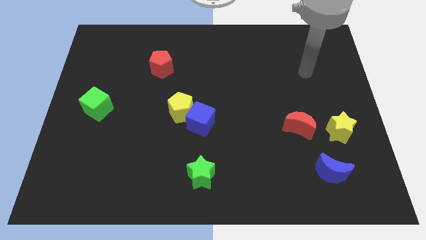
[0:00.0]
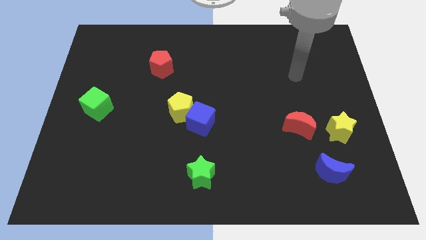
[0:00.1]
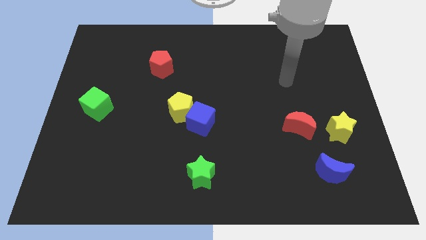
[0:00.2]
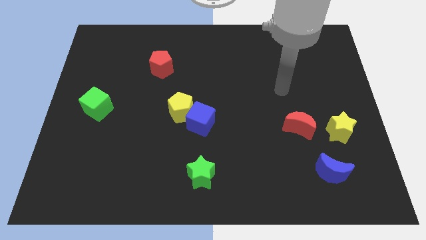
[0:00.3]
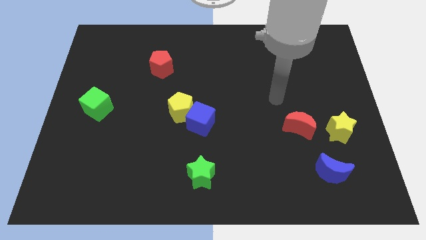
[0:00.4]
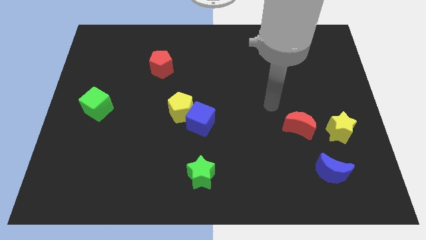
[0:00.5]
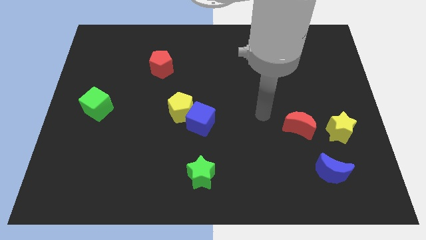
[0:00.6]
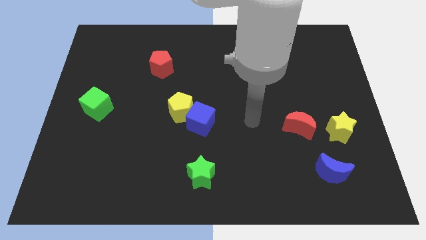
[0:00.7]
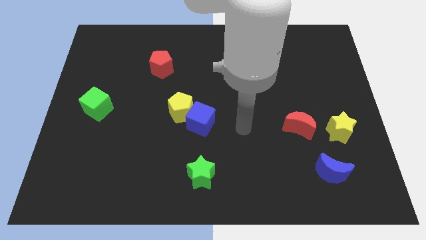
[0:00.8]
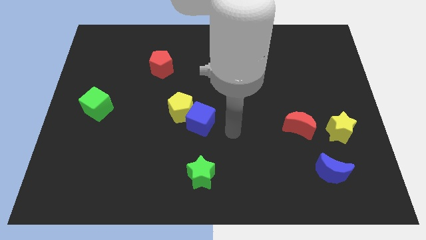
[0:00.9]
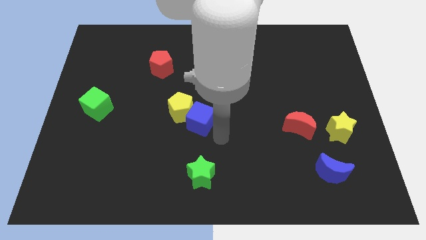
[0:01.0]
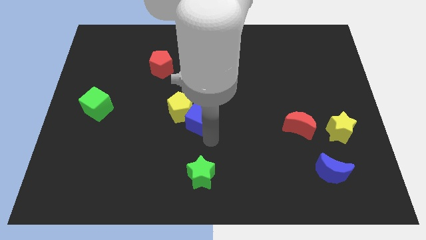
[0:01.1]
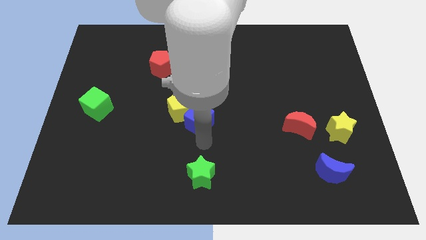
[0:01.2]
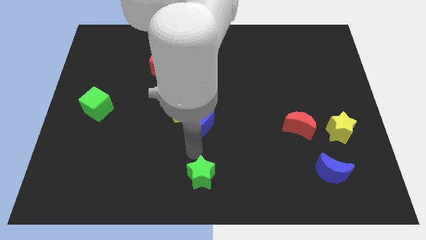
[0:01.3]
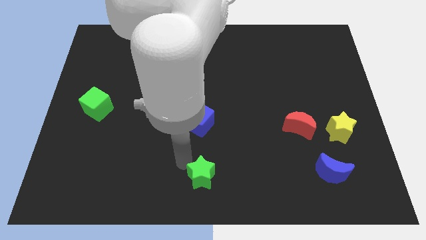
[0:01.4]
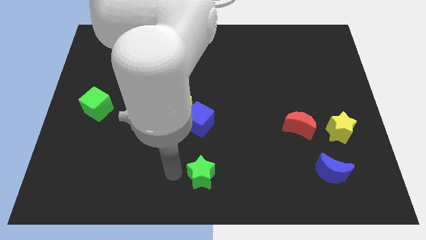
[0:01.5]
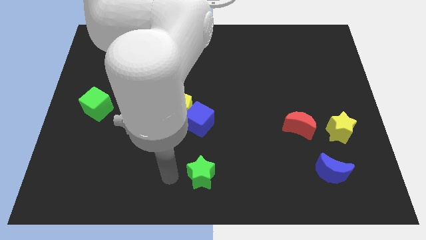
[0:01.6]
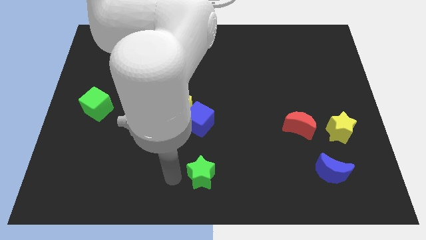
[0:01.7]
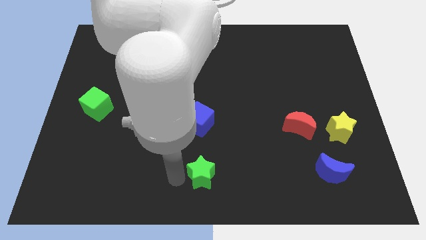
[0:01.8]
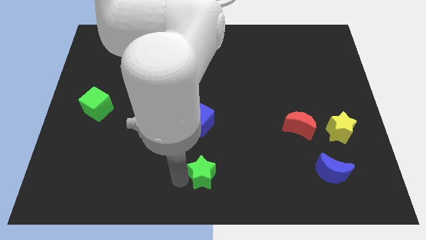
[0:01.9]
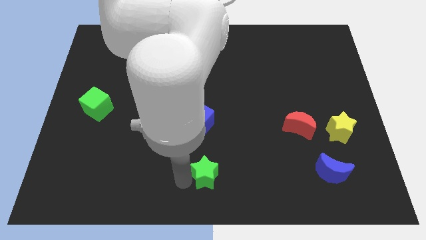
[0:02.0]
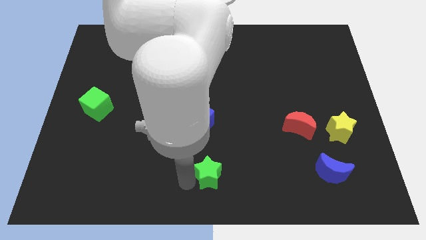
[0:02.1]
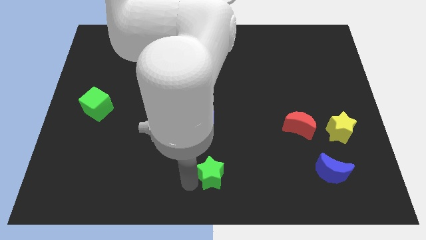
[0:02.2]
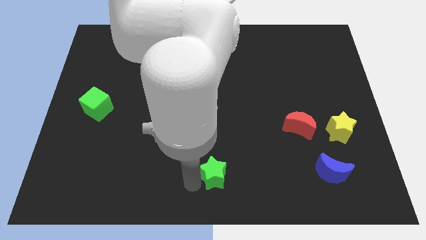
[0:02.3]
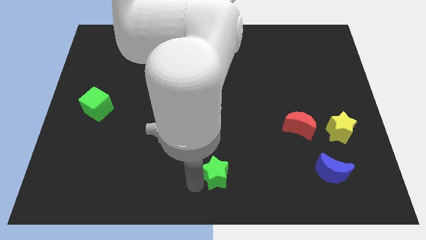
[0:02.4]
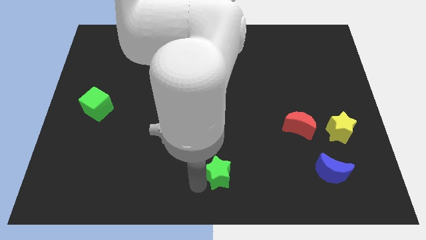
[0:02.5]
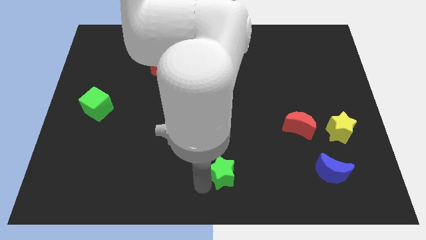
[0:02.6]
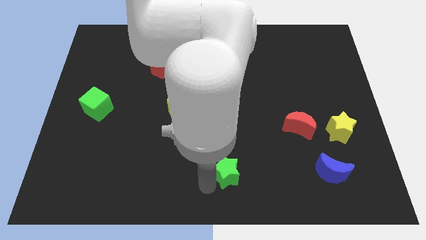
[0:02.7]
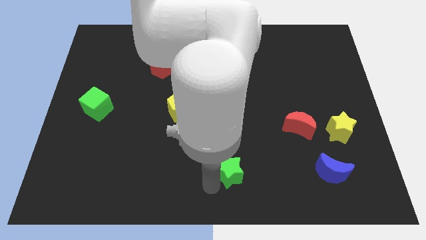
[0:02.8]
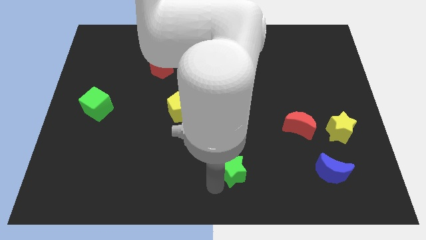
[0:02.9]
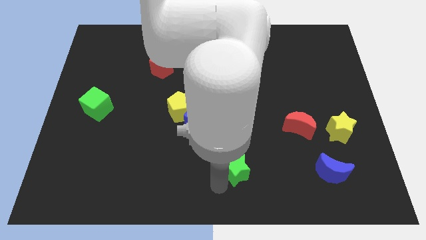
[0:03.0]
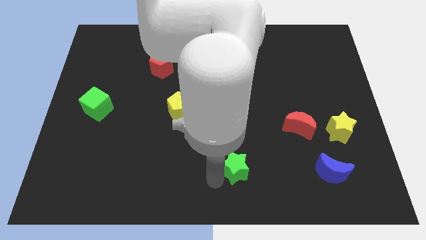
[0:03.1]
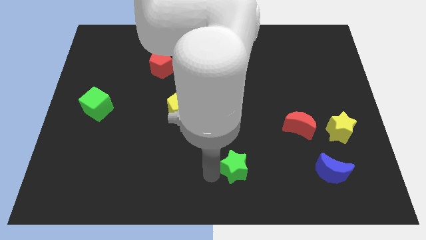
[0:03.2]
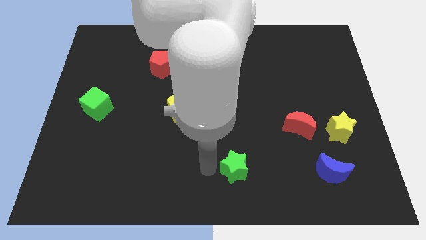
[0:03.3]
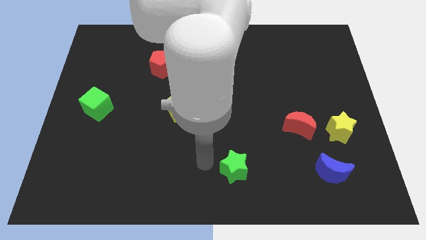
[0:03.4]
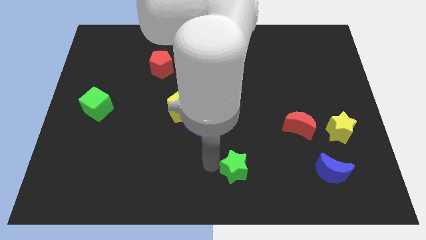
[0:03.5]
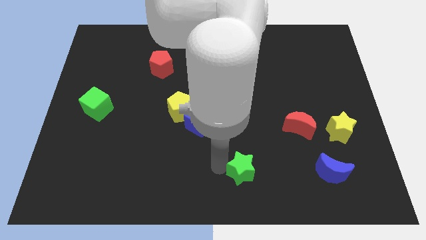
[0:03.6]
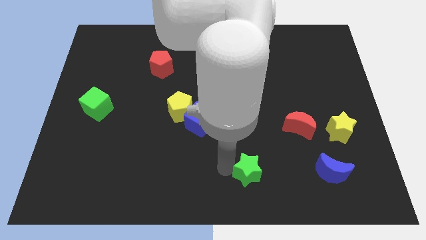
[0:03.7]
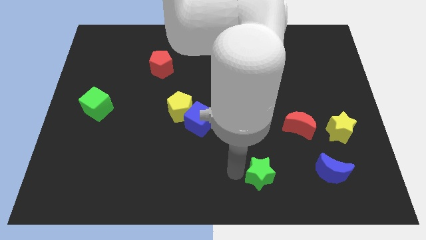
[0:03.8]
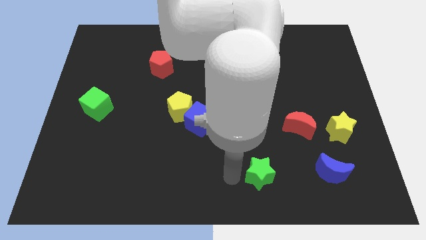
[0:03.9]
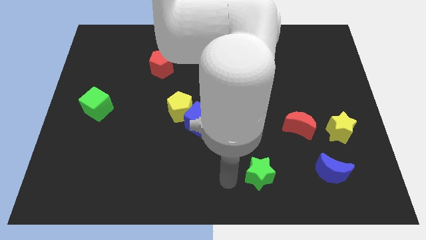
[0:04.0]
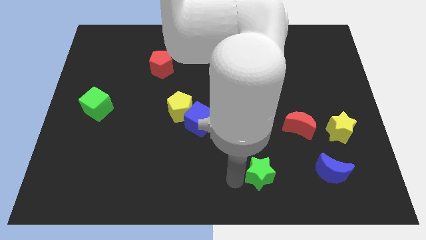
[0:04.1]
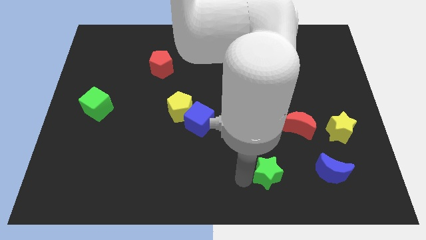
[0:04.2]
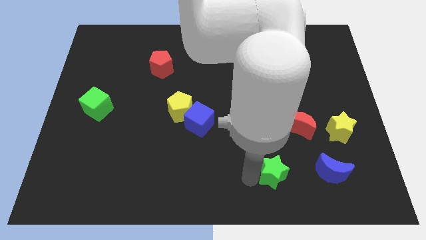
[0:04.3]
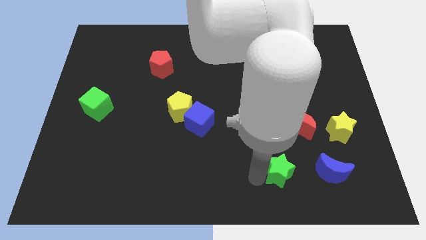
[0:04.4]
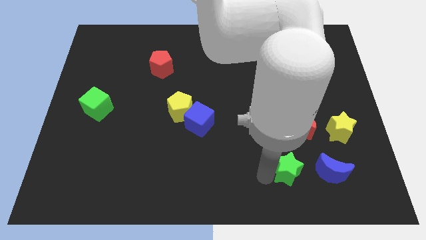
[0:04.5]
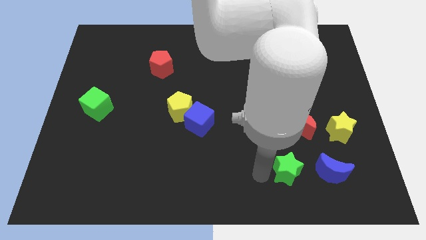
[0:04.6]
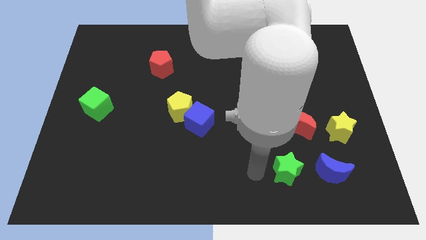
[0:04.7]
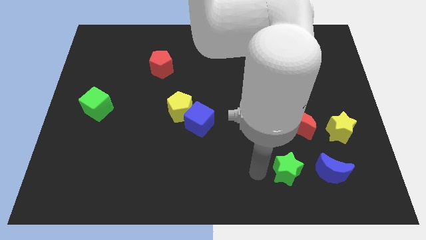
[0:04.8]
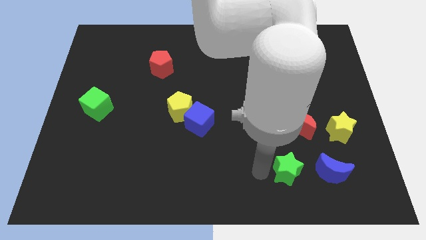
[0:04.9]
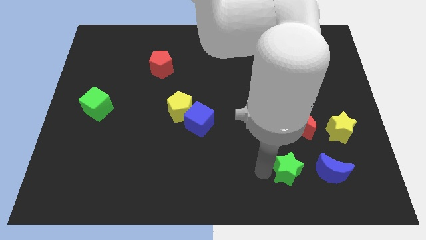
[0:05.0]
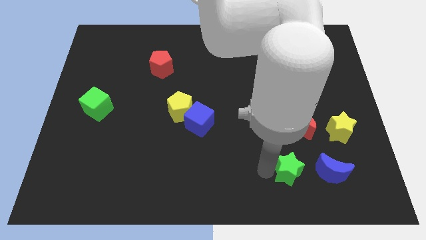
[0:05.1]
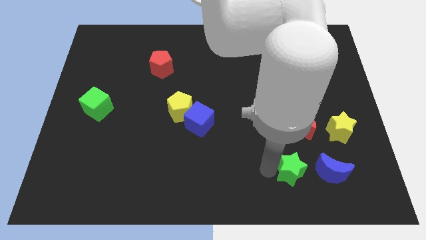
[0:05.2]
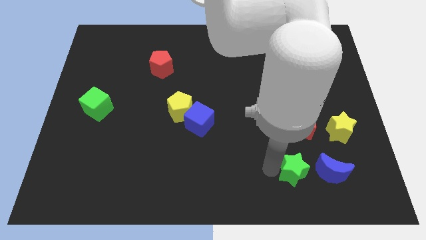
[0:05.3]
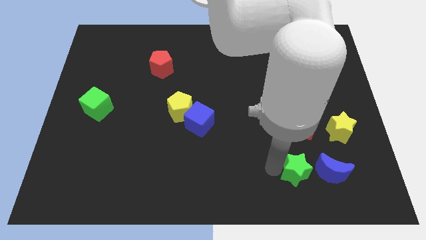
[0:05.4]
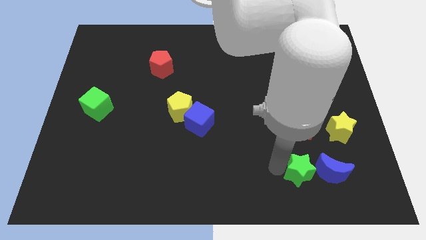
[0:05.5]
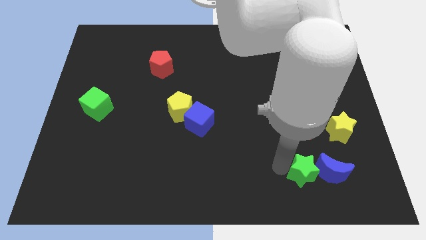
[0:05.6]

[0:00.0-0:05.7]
push the green star towards the blue moon

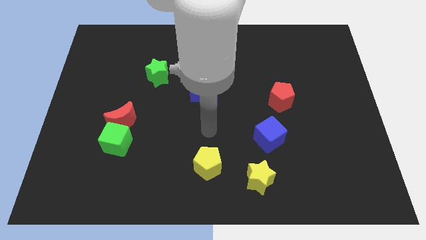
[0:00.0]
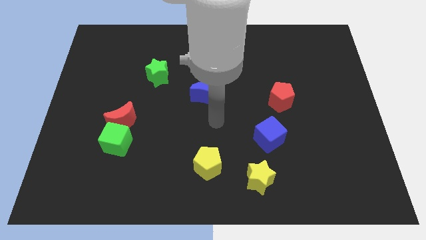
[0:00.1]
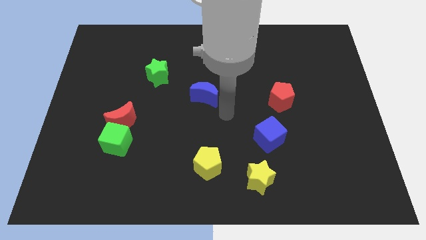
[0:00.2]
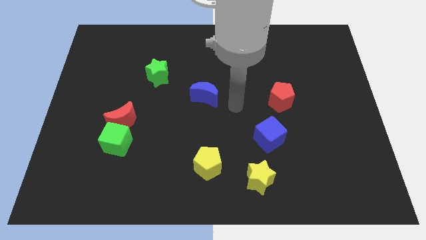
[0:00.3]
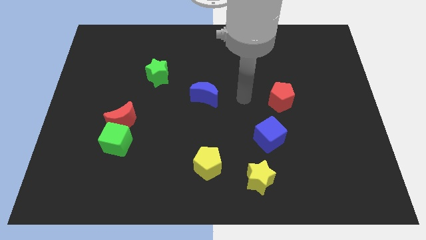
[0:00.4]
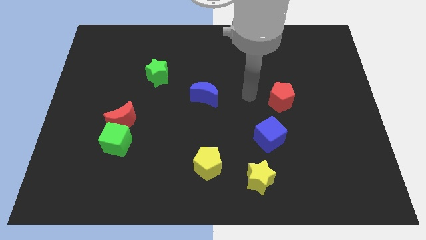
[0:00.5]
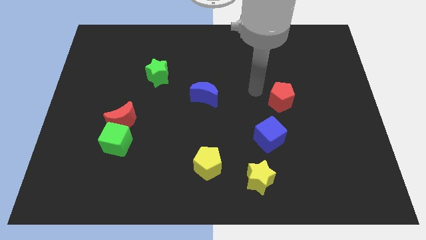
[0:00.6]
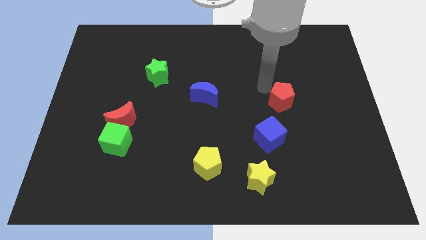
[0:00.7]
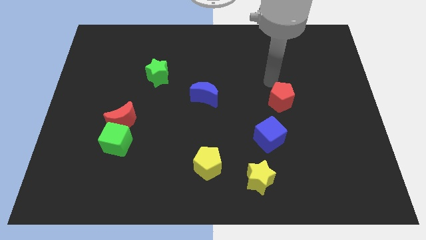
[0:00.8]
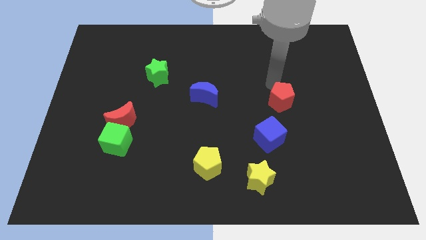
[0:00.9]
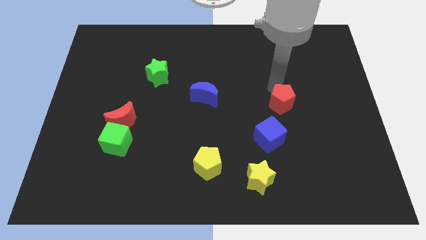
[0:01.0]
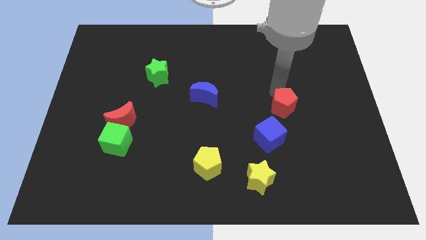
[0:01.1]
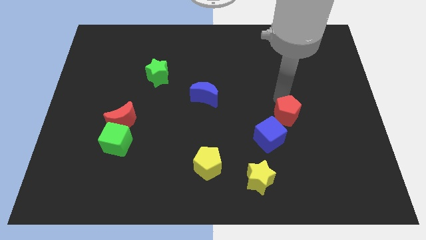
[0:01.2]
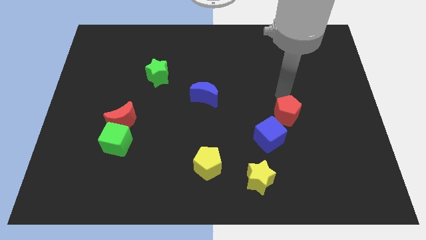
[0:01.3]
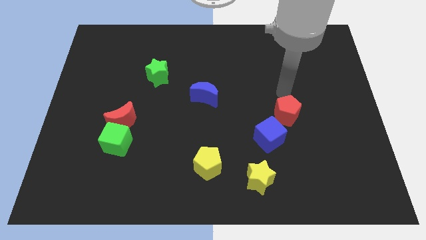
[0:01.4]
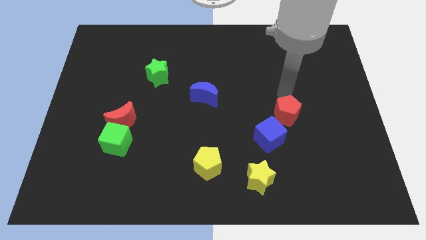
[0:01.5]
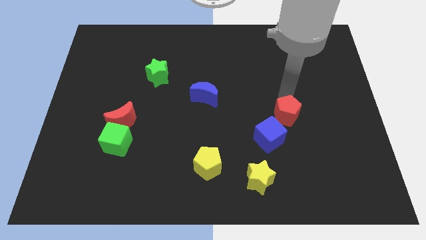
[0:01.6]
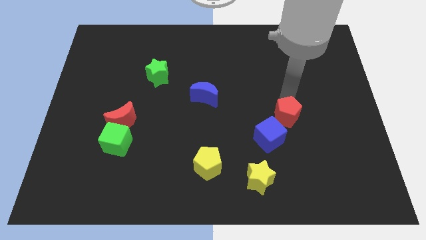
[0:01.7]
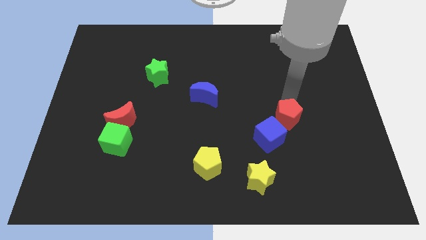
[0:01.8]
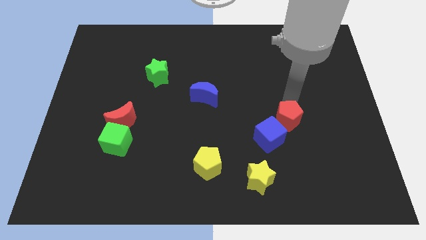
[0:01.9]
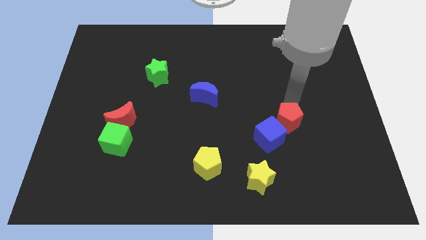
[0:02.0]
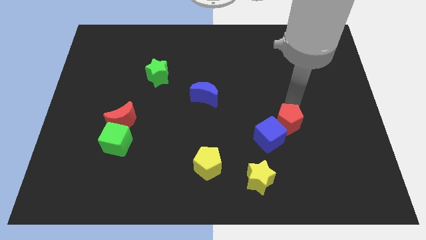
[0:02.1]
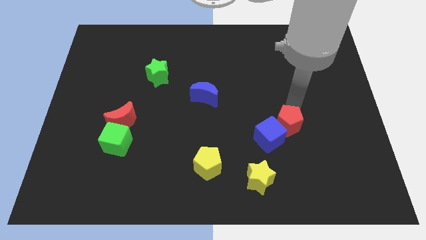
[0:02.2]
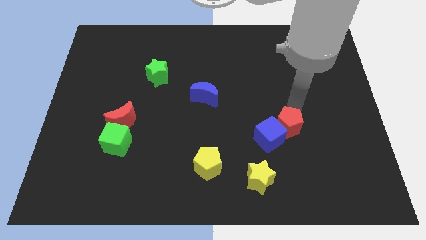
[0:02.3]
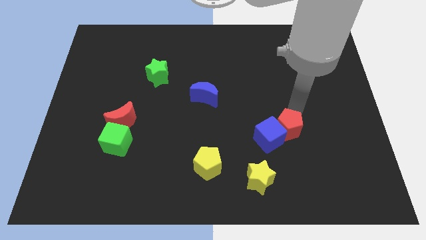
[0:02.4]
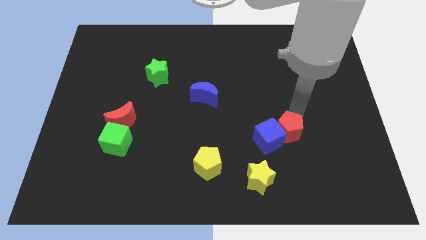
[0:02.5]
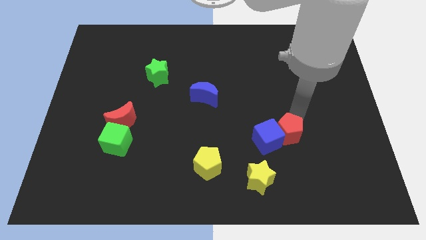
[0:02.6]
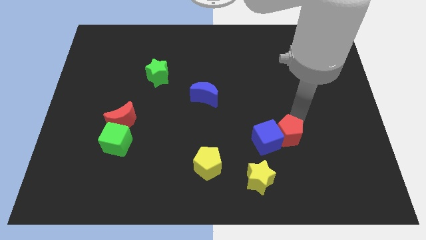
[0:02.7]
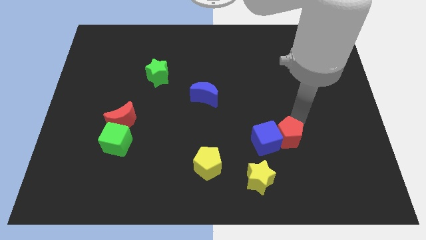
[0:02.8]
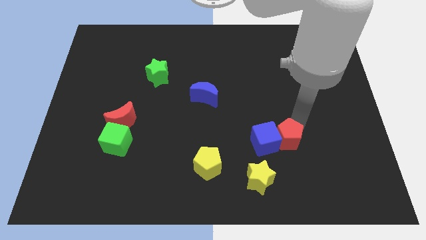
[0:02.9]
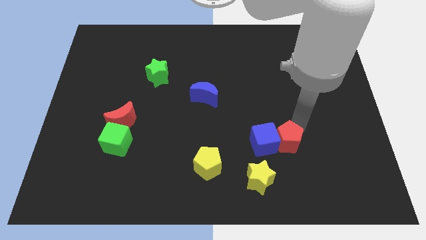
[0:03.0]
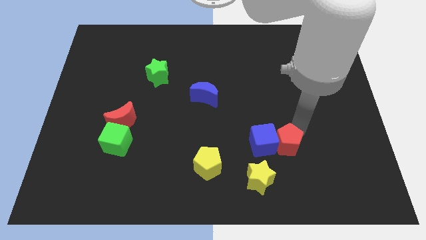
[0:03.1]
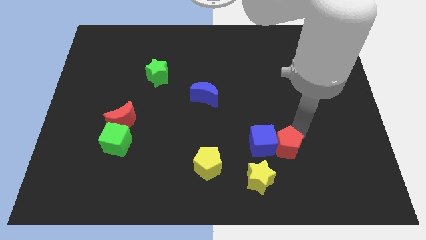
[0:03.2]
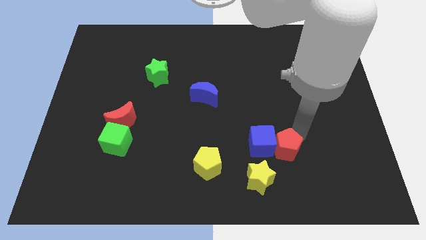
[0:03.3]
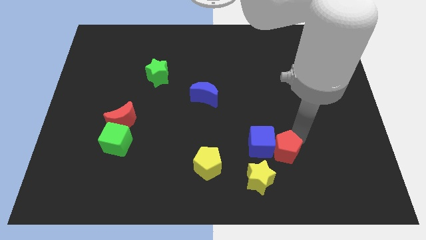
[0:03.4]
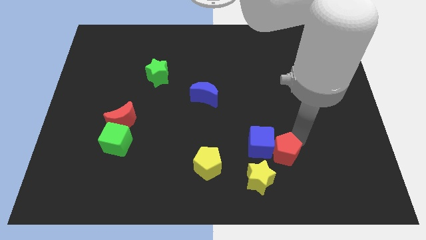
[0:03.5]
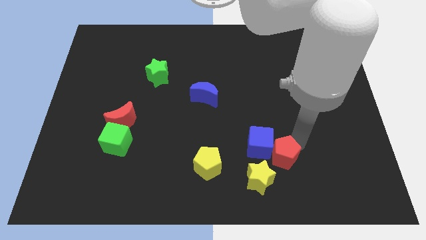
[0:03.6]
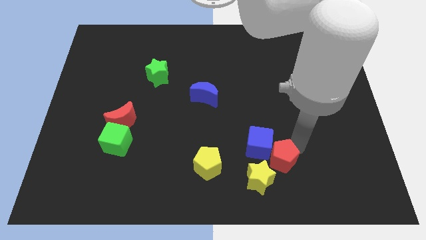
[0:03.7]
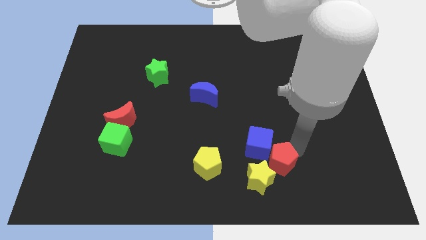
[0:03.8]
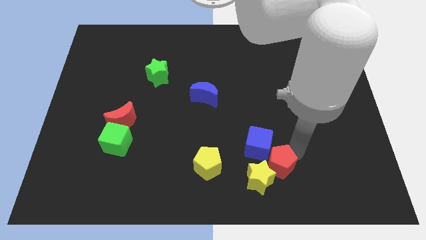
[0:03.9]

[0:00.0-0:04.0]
push the red pentagon to the yellow star
